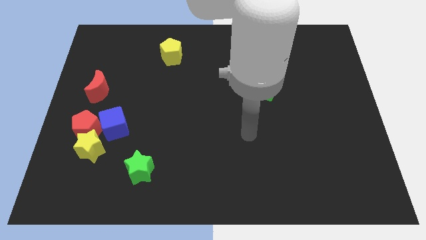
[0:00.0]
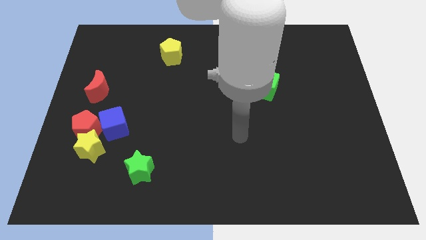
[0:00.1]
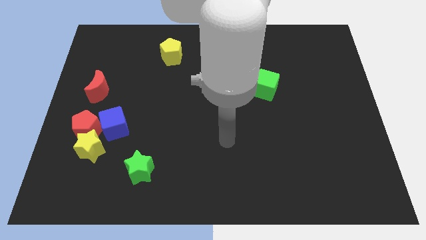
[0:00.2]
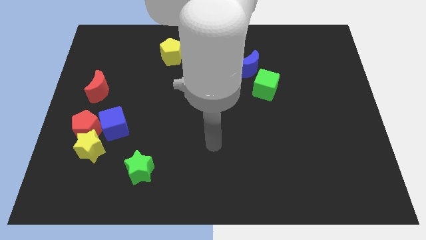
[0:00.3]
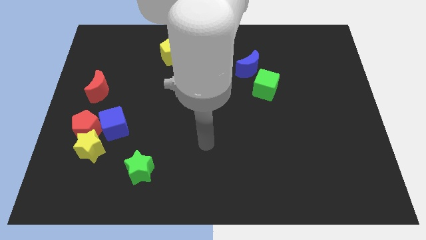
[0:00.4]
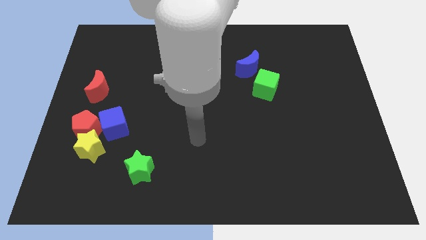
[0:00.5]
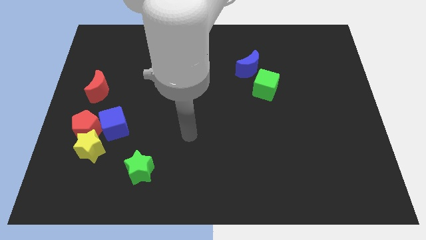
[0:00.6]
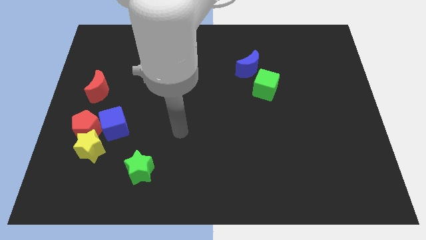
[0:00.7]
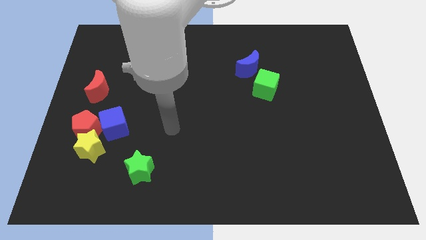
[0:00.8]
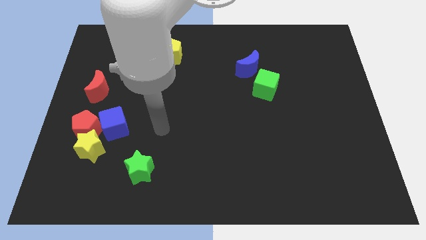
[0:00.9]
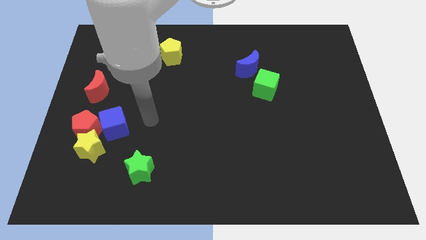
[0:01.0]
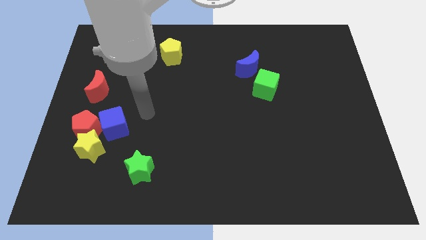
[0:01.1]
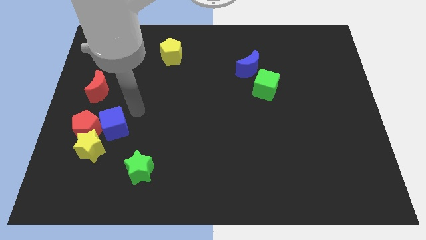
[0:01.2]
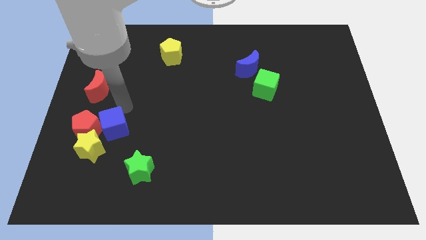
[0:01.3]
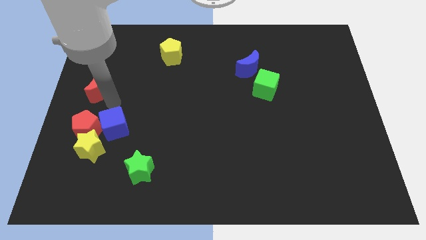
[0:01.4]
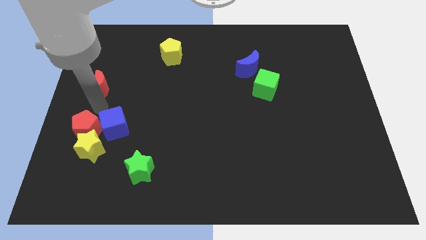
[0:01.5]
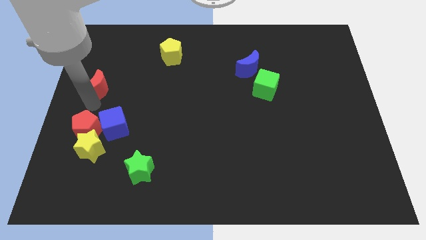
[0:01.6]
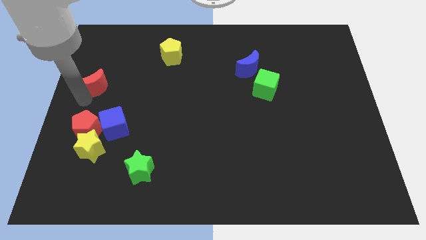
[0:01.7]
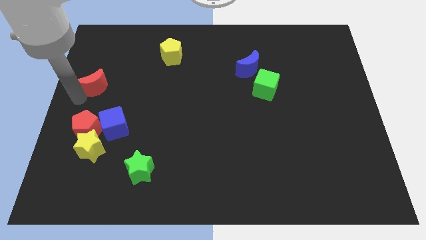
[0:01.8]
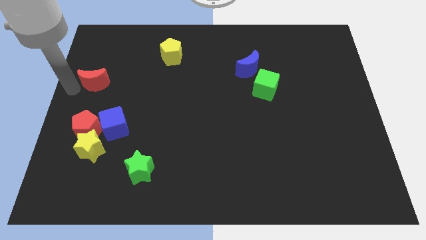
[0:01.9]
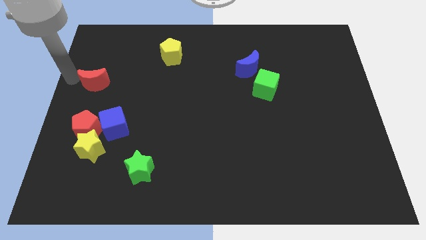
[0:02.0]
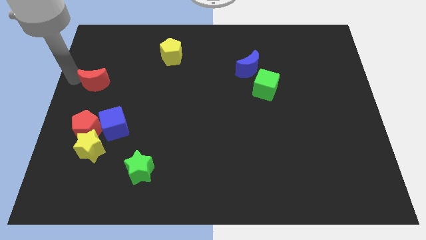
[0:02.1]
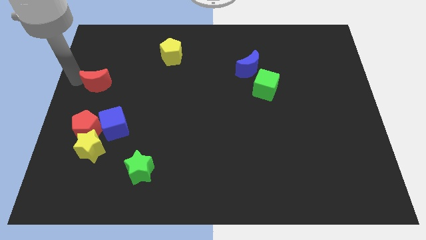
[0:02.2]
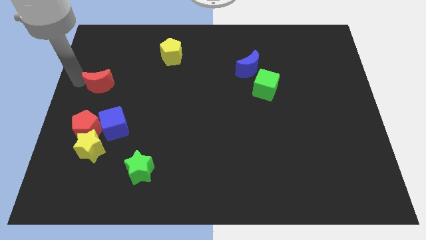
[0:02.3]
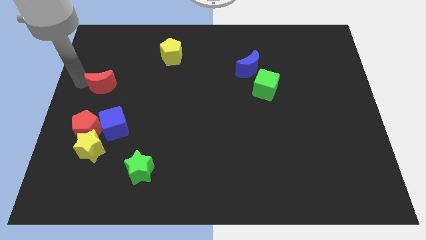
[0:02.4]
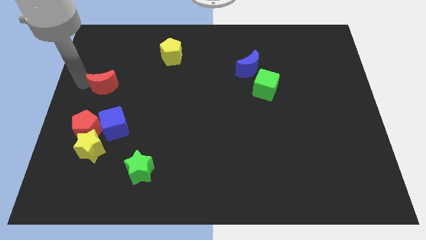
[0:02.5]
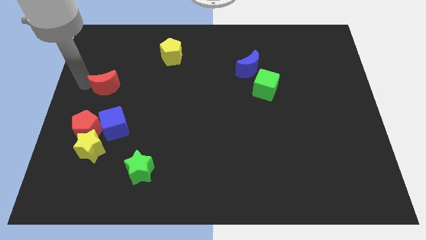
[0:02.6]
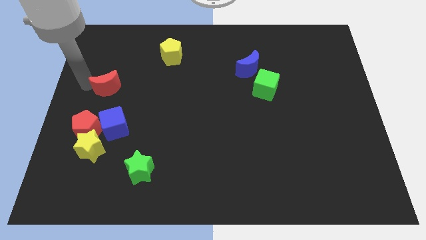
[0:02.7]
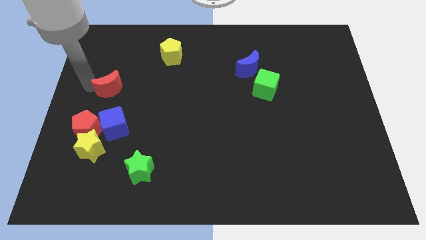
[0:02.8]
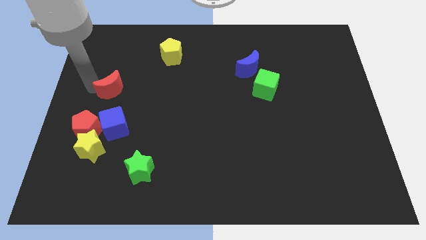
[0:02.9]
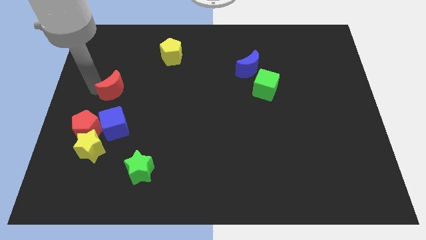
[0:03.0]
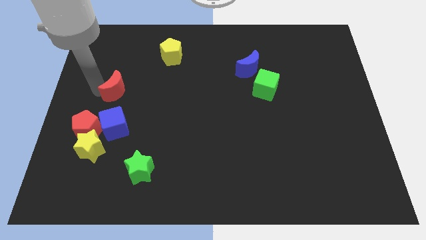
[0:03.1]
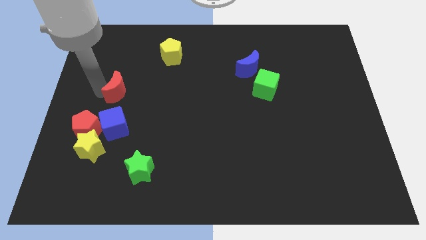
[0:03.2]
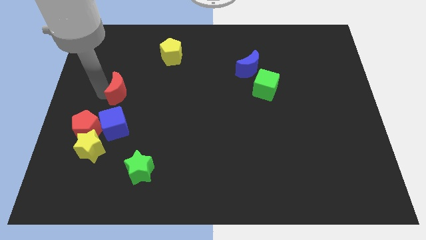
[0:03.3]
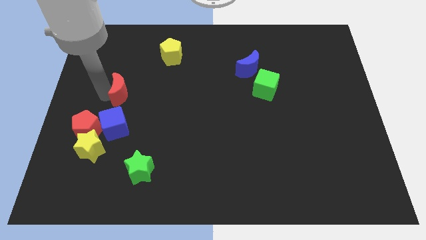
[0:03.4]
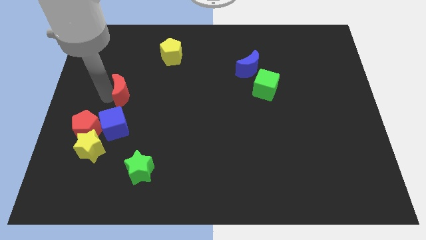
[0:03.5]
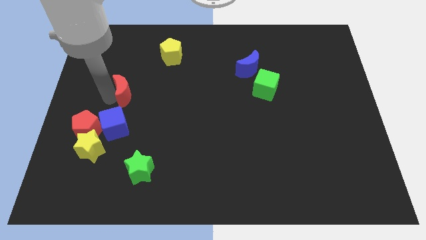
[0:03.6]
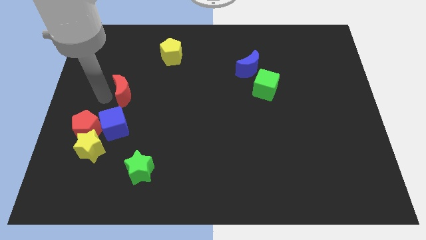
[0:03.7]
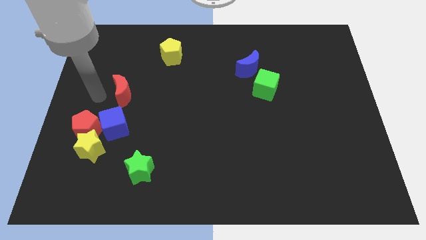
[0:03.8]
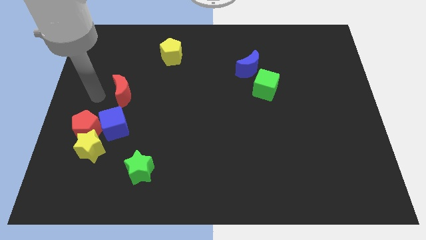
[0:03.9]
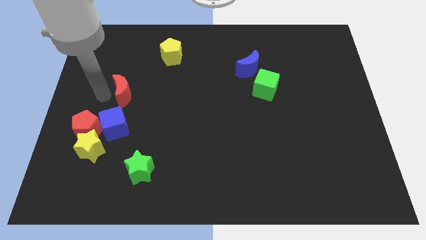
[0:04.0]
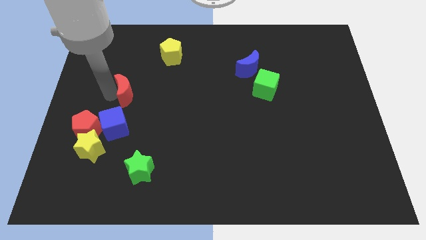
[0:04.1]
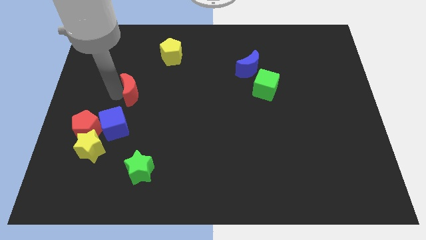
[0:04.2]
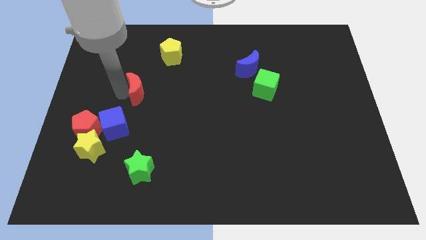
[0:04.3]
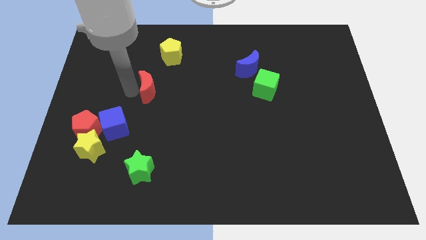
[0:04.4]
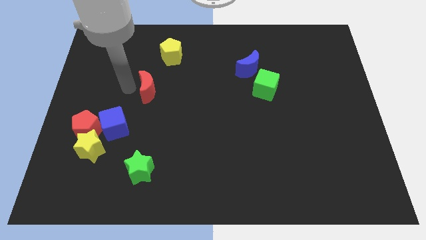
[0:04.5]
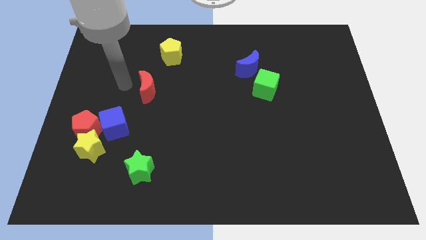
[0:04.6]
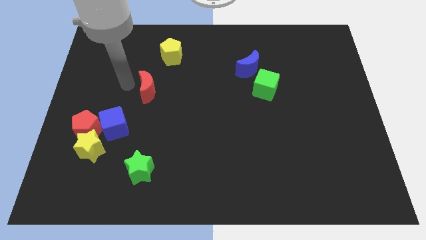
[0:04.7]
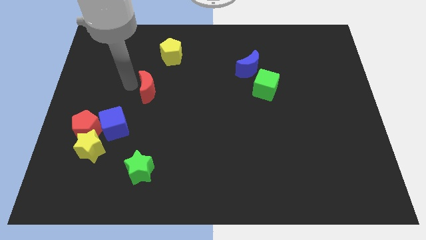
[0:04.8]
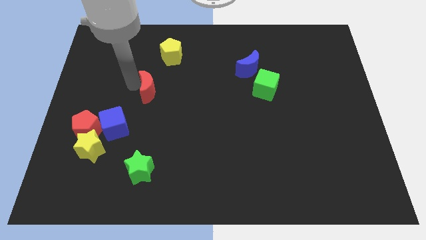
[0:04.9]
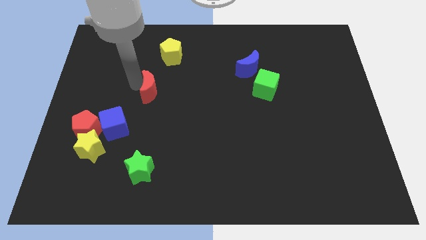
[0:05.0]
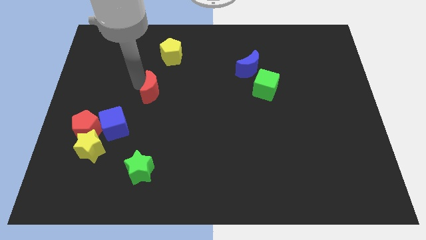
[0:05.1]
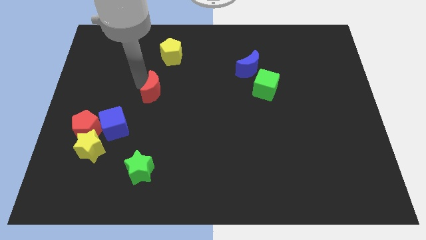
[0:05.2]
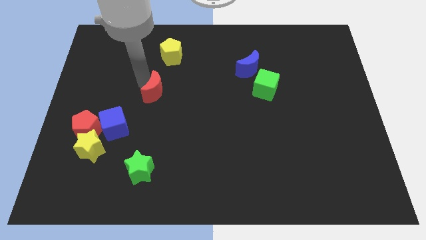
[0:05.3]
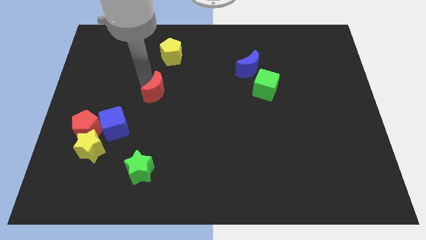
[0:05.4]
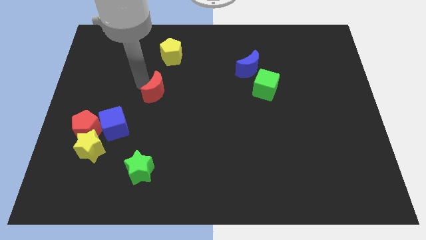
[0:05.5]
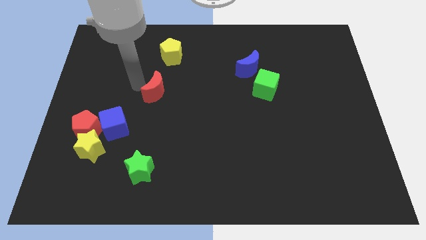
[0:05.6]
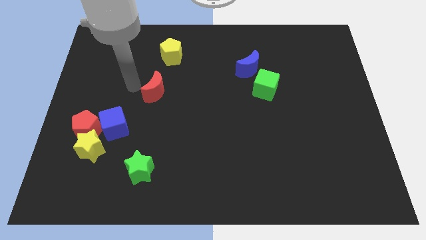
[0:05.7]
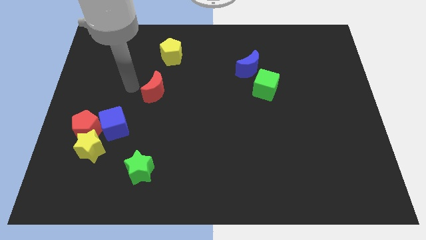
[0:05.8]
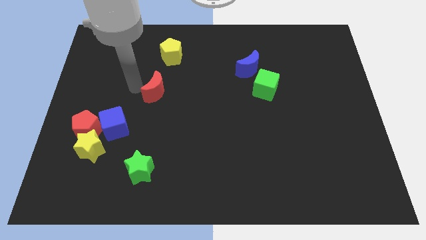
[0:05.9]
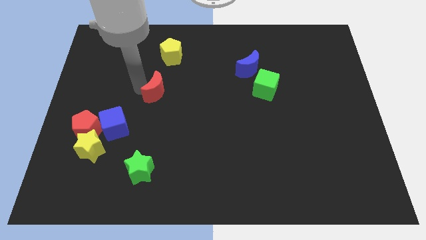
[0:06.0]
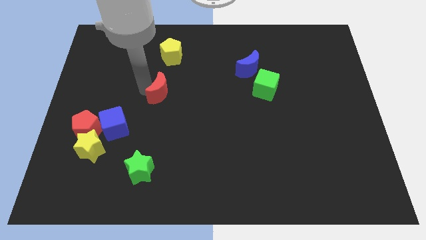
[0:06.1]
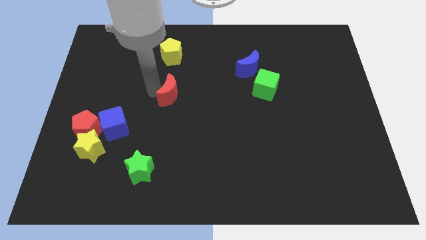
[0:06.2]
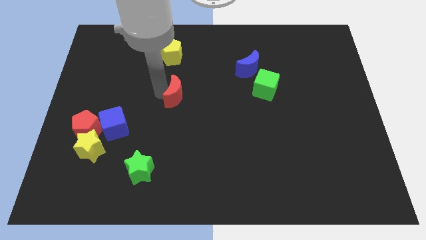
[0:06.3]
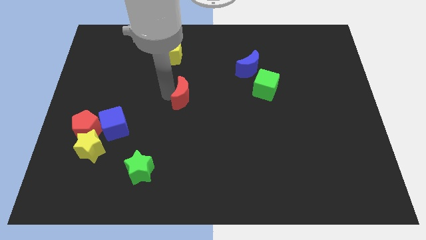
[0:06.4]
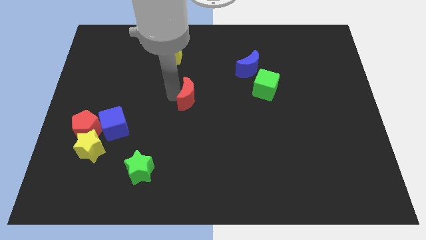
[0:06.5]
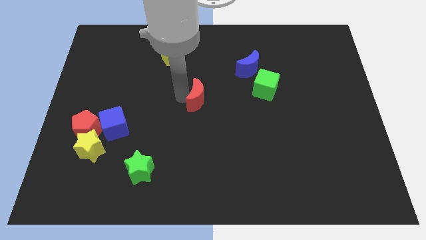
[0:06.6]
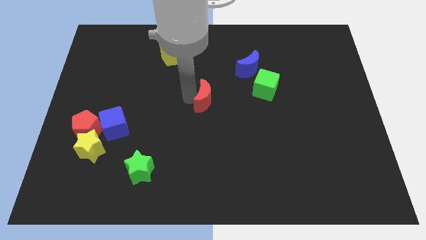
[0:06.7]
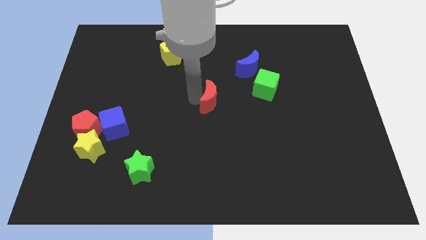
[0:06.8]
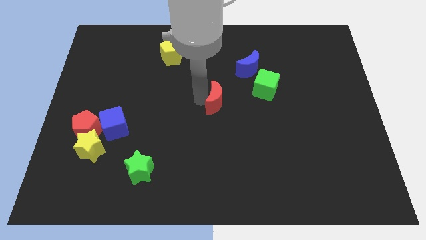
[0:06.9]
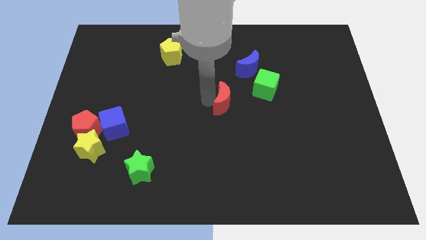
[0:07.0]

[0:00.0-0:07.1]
slide the red moon to the bottom left side of the green cube

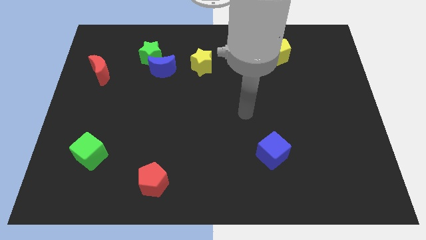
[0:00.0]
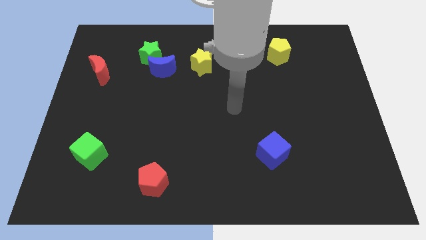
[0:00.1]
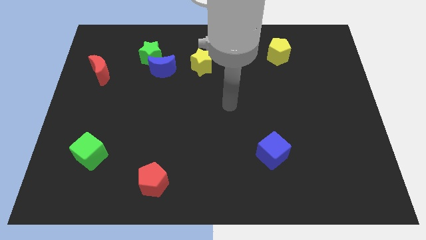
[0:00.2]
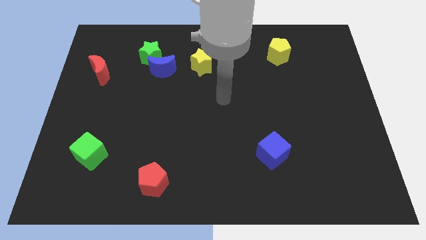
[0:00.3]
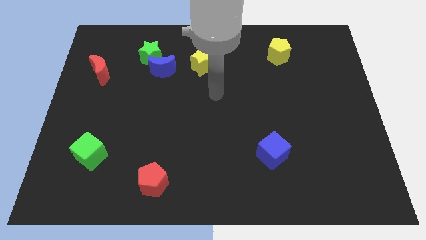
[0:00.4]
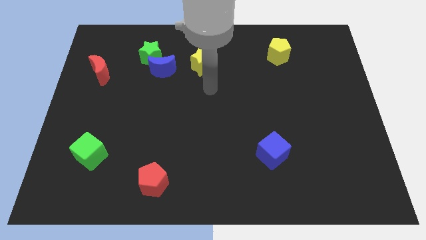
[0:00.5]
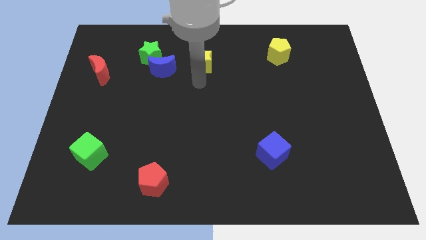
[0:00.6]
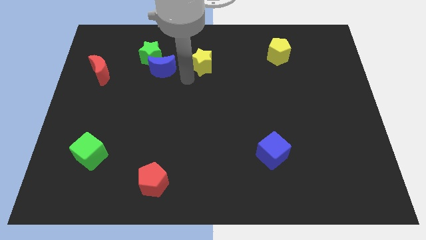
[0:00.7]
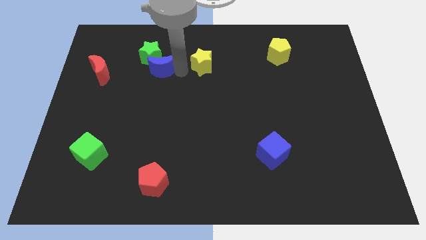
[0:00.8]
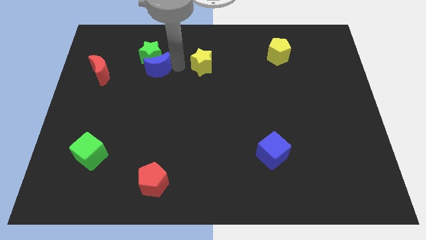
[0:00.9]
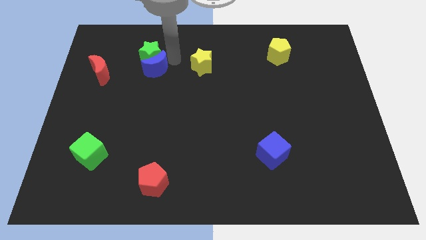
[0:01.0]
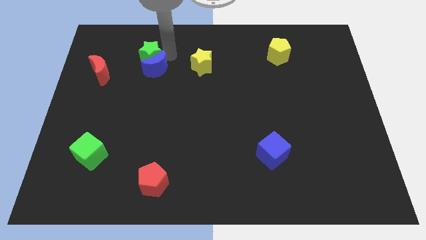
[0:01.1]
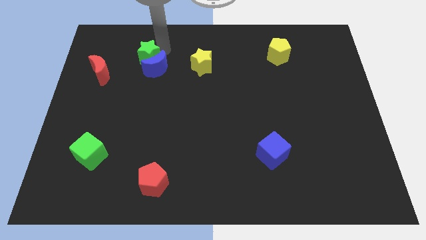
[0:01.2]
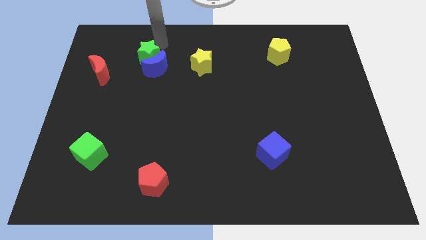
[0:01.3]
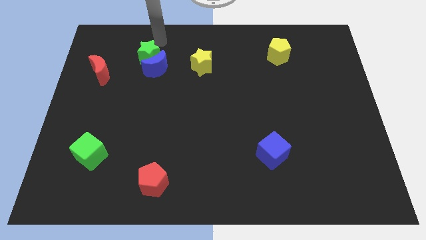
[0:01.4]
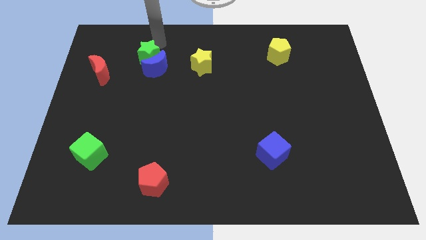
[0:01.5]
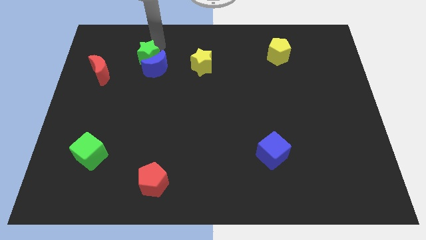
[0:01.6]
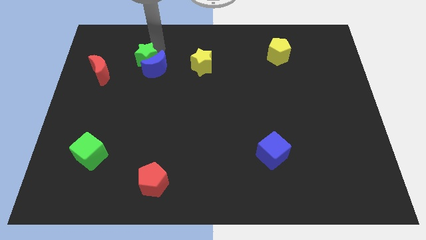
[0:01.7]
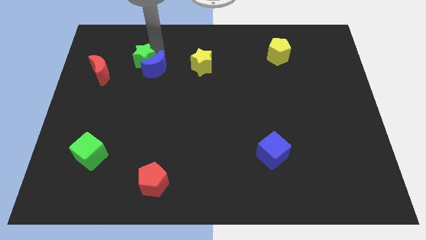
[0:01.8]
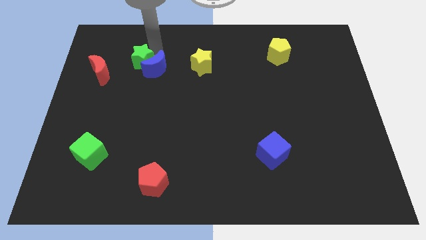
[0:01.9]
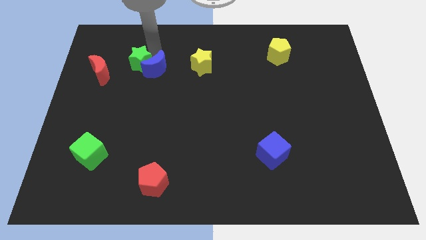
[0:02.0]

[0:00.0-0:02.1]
push the green star to the bottom left of the blue moon
